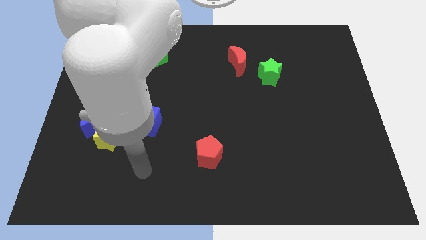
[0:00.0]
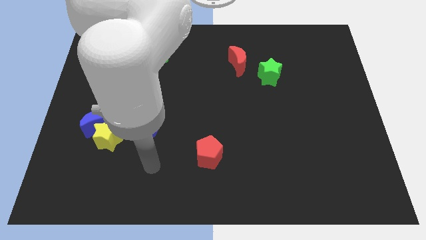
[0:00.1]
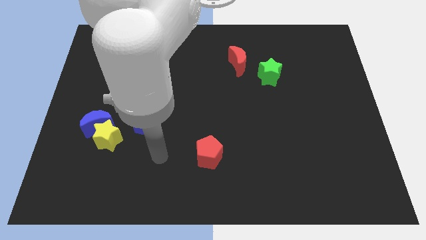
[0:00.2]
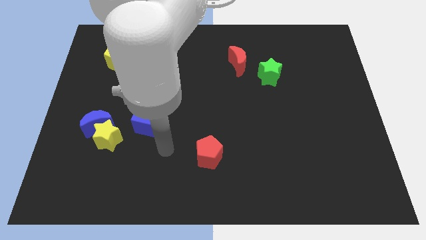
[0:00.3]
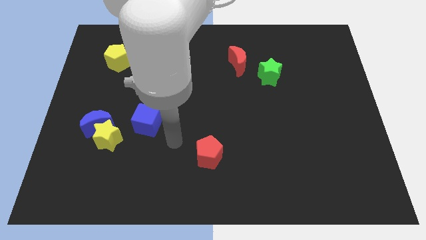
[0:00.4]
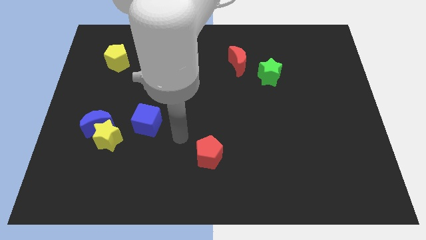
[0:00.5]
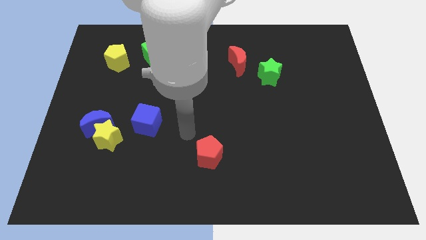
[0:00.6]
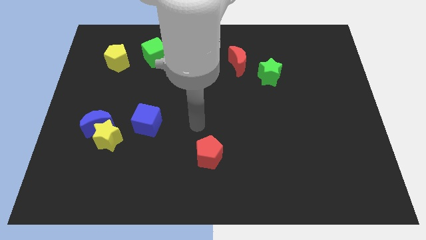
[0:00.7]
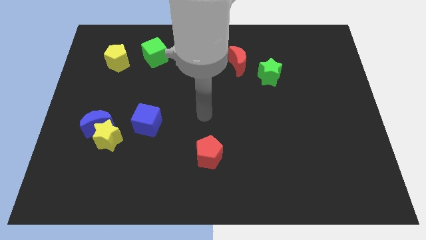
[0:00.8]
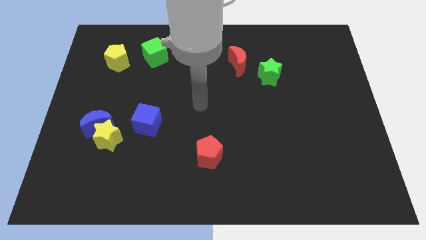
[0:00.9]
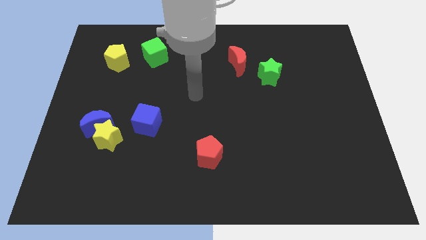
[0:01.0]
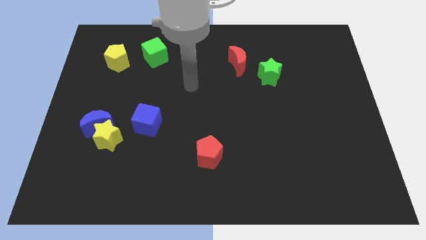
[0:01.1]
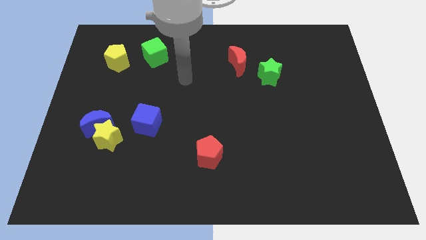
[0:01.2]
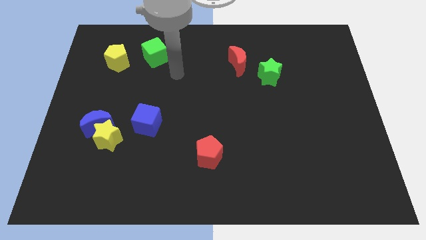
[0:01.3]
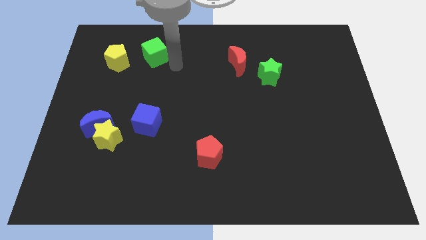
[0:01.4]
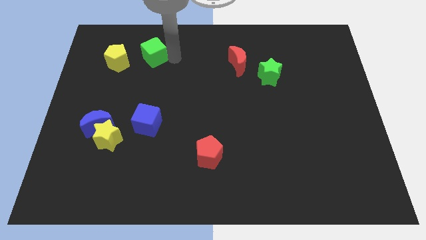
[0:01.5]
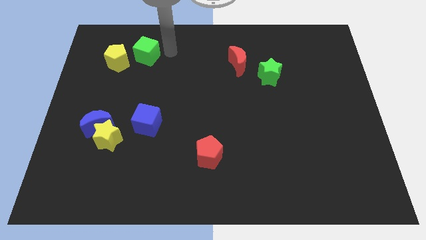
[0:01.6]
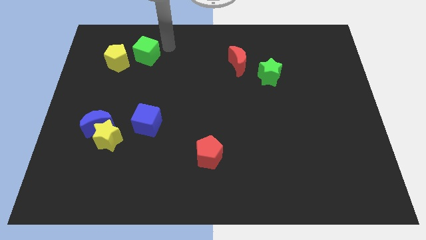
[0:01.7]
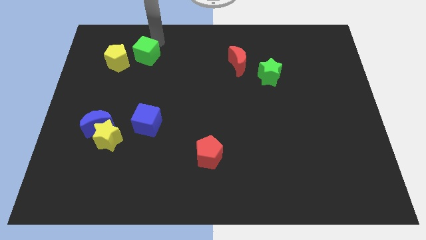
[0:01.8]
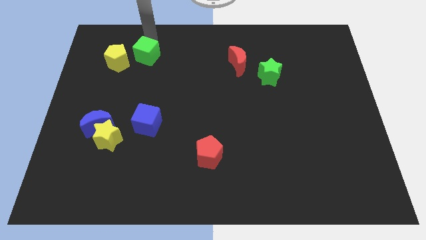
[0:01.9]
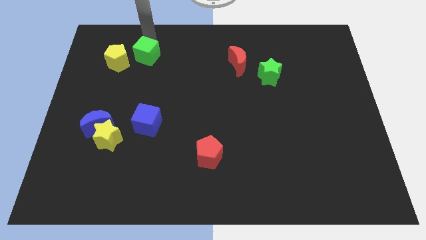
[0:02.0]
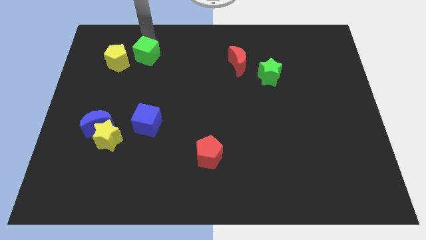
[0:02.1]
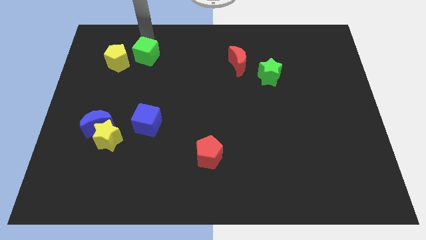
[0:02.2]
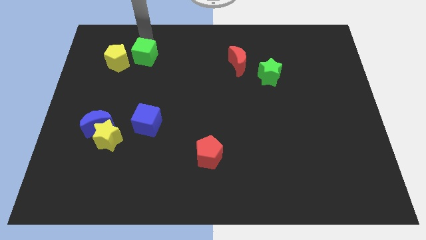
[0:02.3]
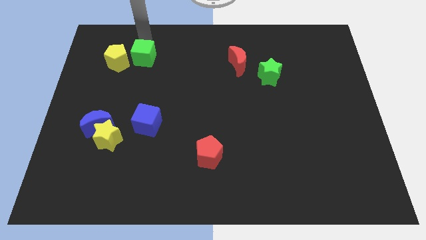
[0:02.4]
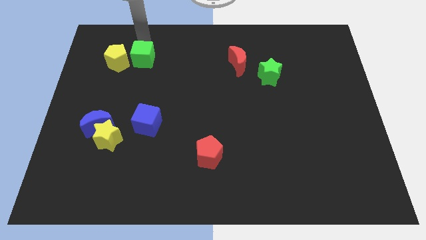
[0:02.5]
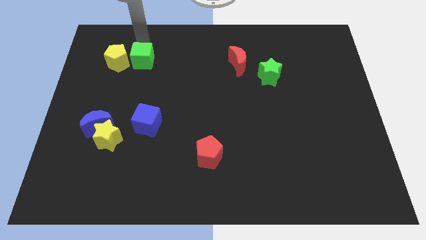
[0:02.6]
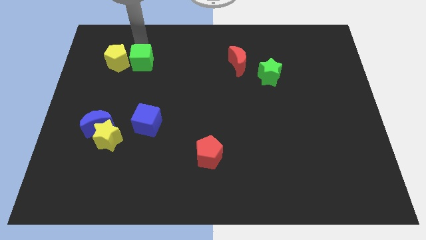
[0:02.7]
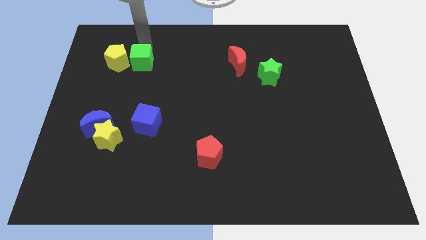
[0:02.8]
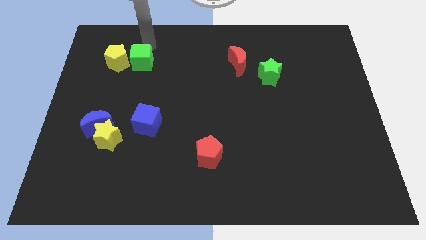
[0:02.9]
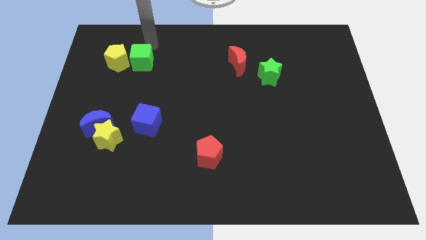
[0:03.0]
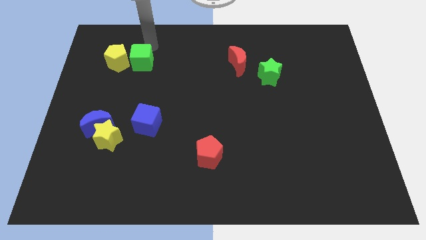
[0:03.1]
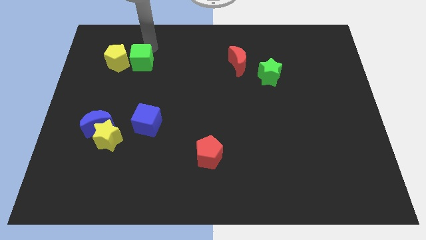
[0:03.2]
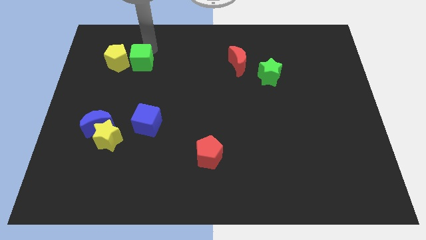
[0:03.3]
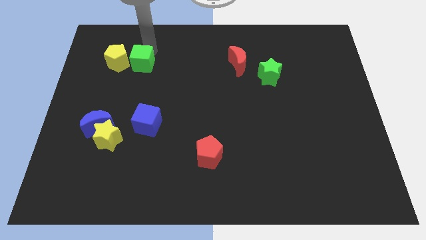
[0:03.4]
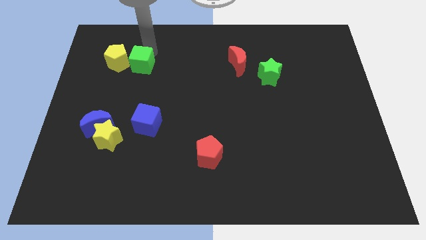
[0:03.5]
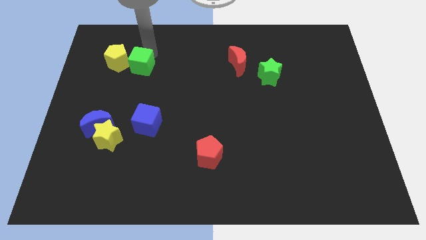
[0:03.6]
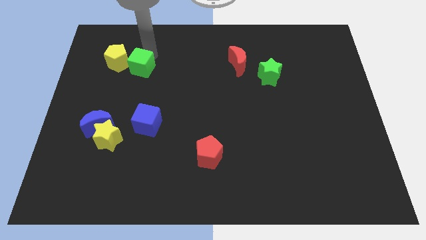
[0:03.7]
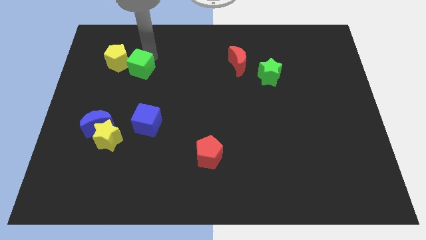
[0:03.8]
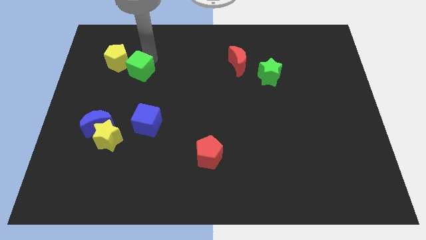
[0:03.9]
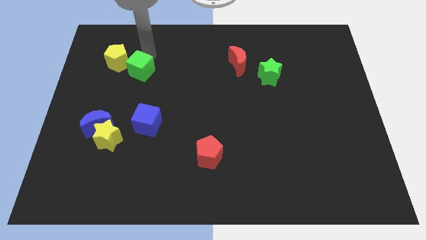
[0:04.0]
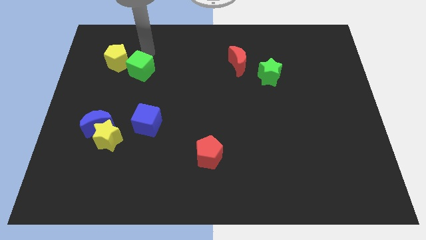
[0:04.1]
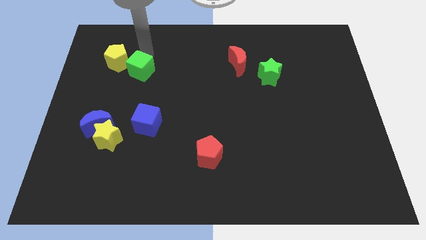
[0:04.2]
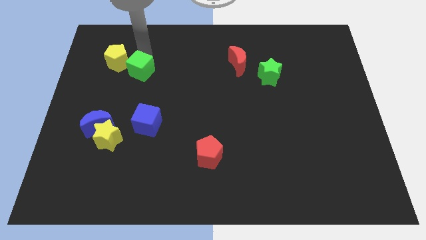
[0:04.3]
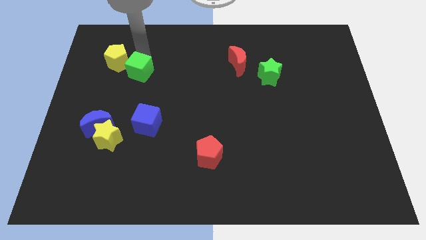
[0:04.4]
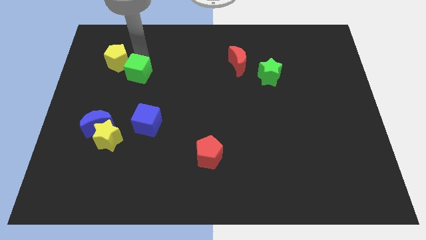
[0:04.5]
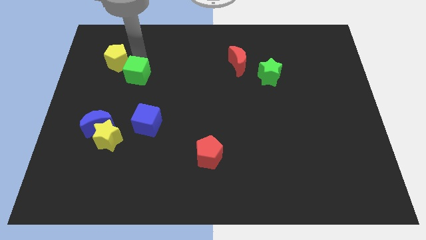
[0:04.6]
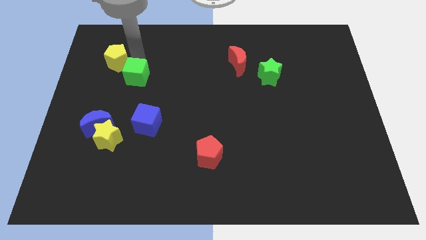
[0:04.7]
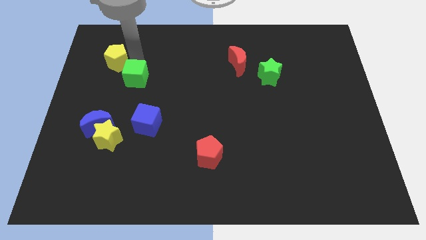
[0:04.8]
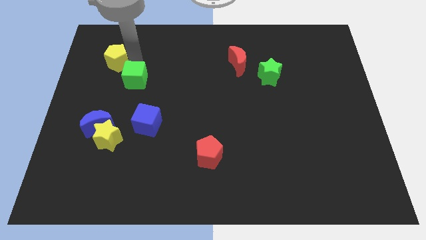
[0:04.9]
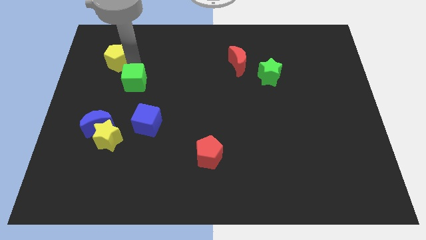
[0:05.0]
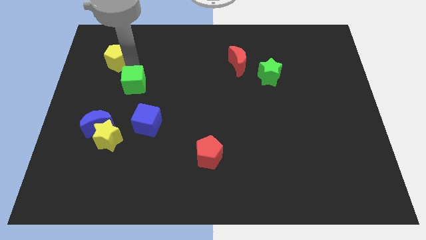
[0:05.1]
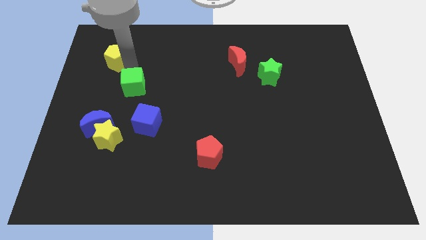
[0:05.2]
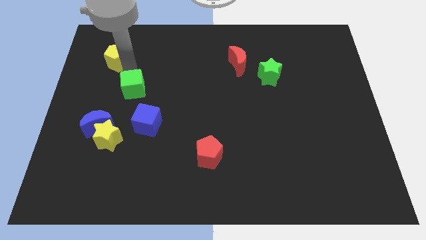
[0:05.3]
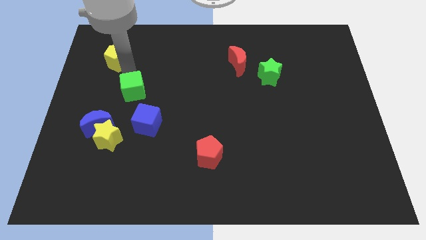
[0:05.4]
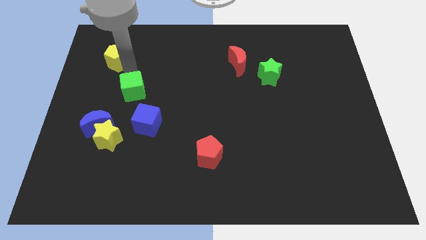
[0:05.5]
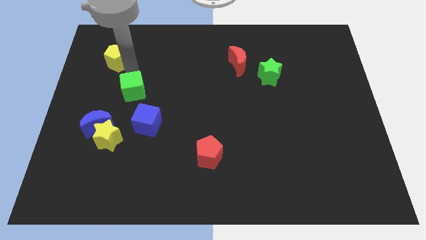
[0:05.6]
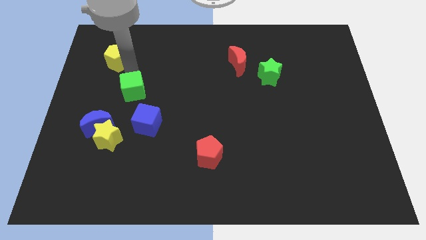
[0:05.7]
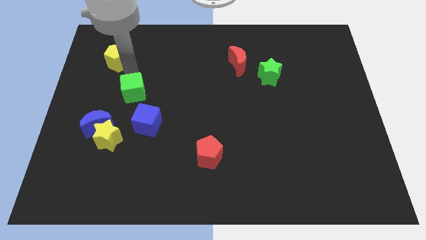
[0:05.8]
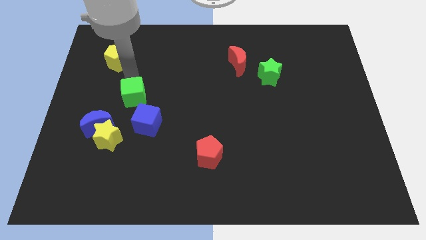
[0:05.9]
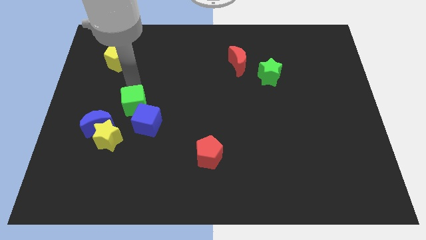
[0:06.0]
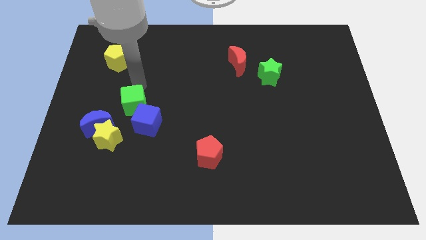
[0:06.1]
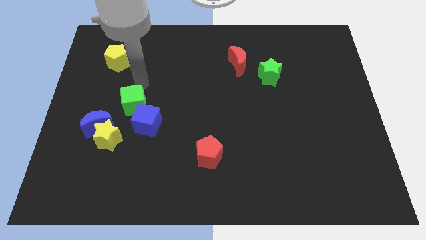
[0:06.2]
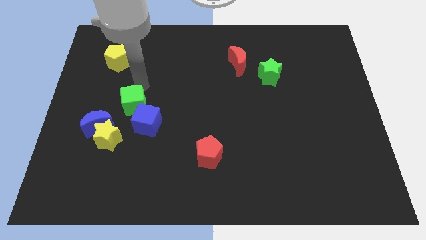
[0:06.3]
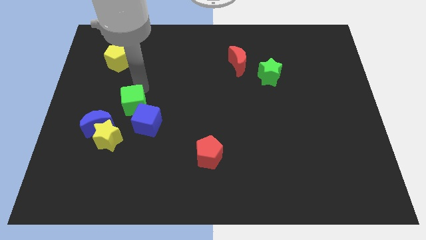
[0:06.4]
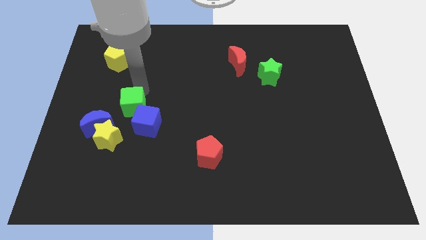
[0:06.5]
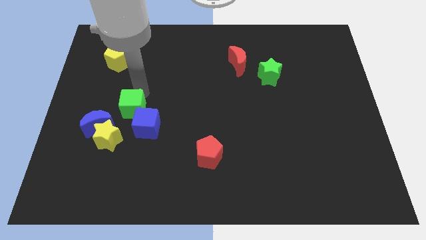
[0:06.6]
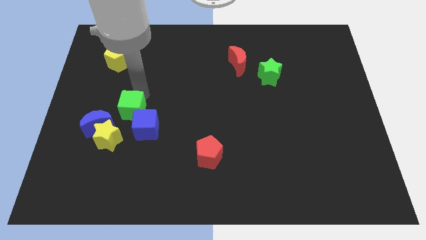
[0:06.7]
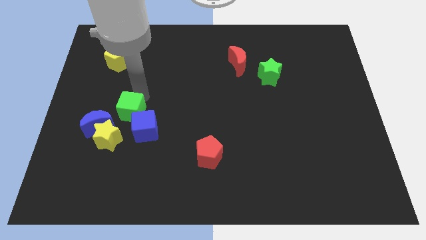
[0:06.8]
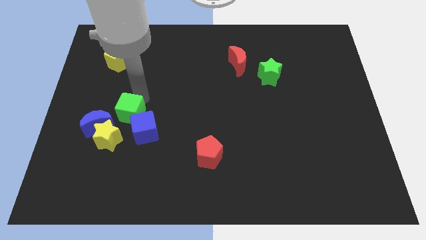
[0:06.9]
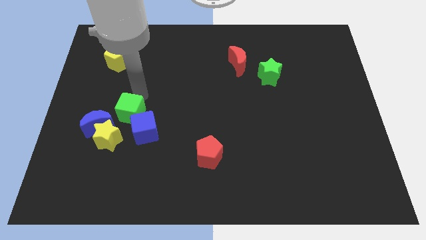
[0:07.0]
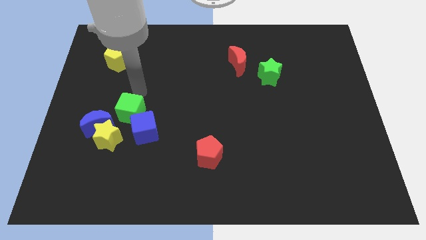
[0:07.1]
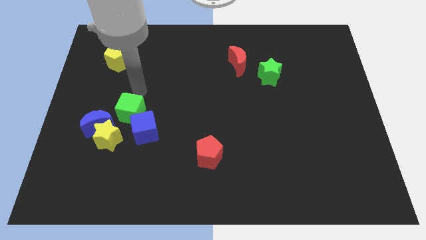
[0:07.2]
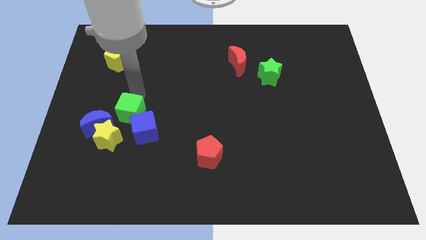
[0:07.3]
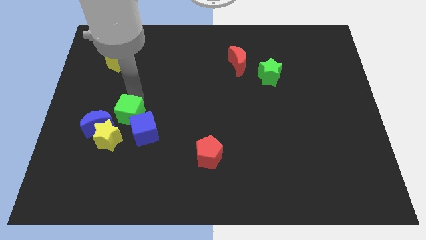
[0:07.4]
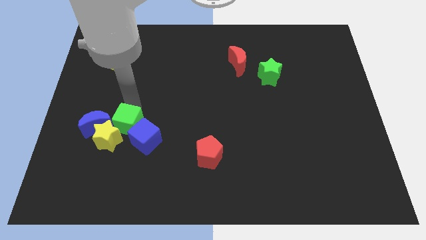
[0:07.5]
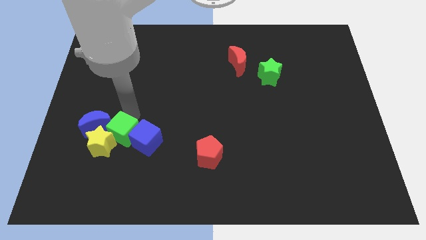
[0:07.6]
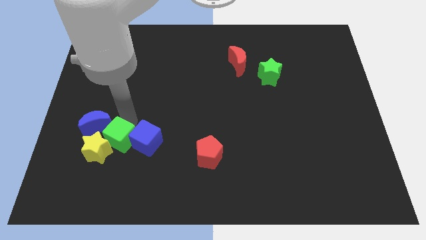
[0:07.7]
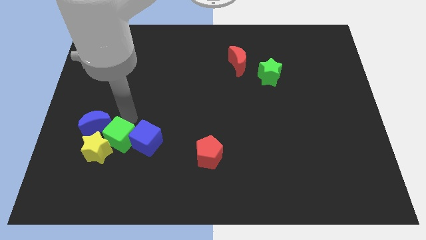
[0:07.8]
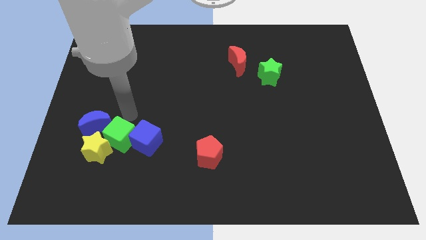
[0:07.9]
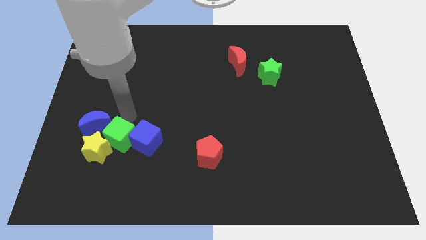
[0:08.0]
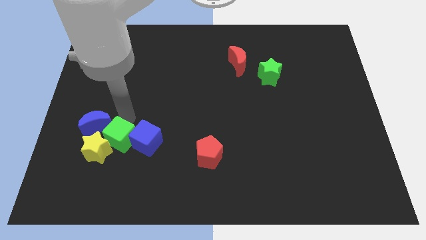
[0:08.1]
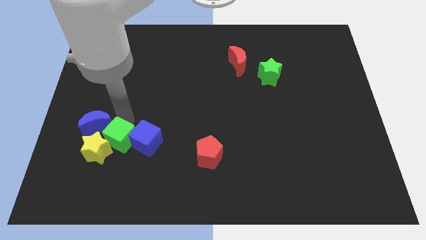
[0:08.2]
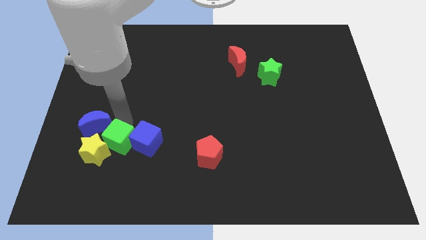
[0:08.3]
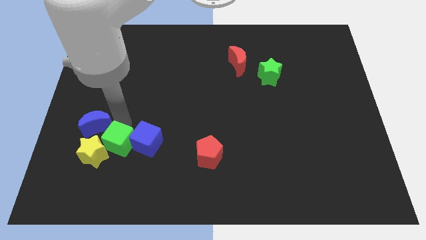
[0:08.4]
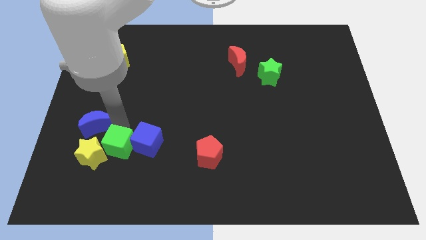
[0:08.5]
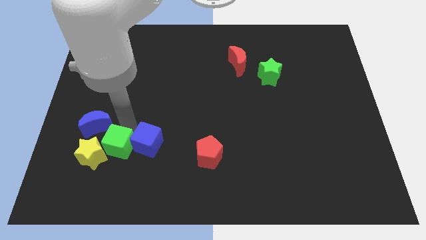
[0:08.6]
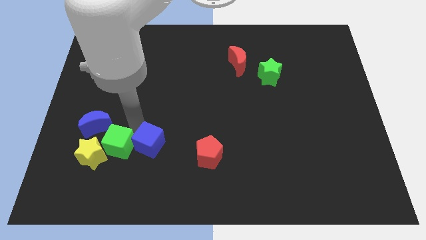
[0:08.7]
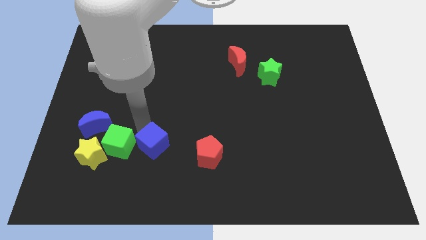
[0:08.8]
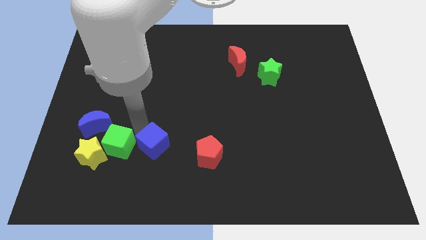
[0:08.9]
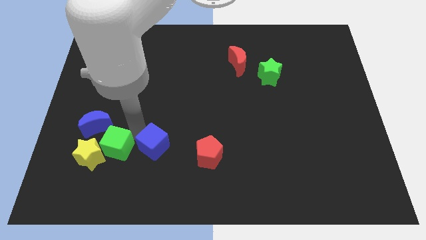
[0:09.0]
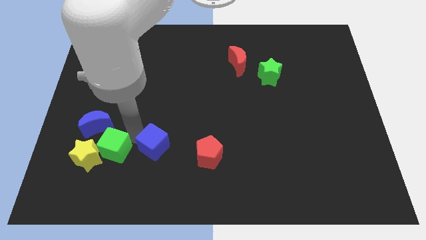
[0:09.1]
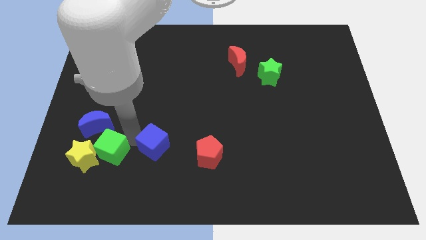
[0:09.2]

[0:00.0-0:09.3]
slide the green cube below the blue moon
